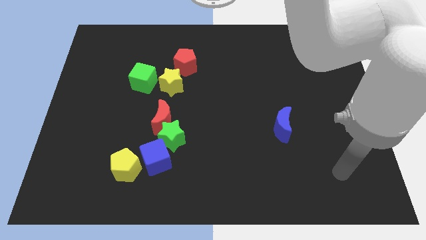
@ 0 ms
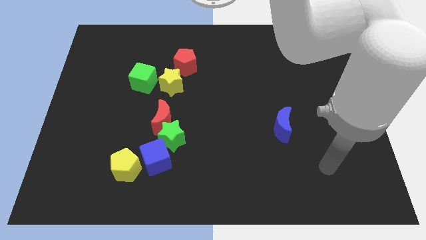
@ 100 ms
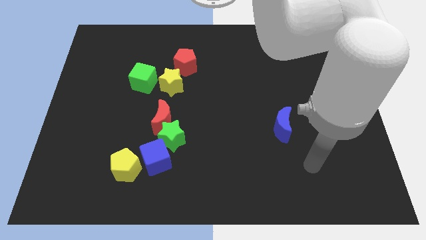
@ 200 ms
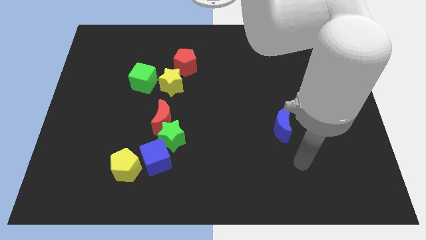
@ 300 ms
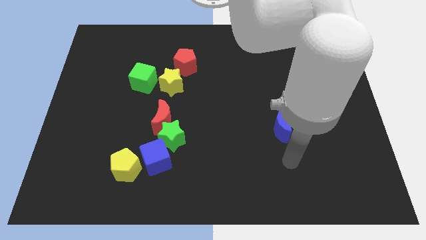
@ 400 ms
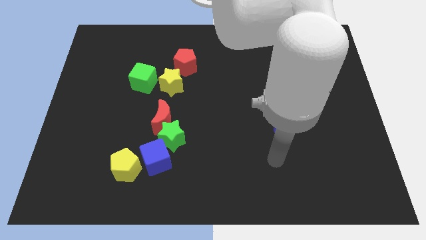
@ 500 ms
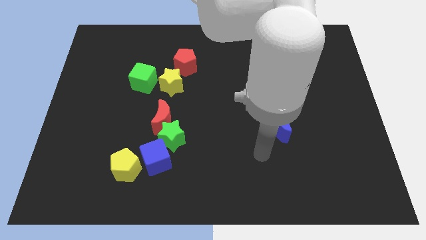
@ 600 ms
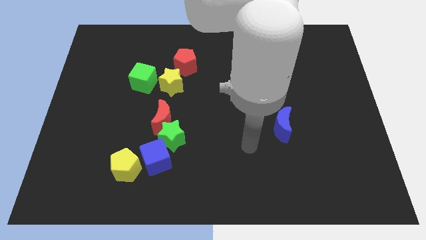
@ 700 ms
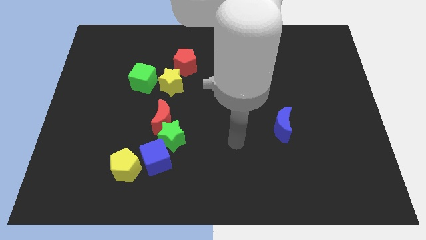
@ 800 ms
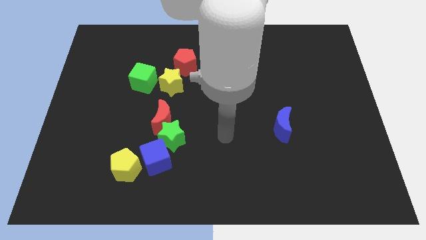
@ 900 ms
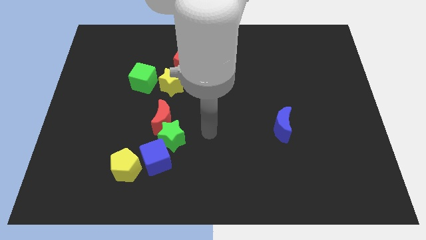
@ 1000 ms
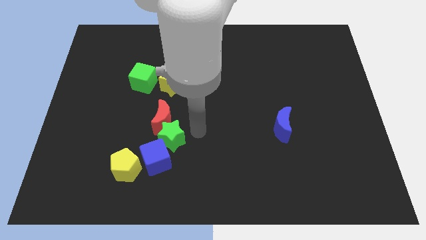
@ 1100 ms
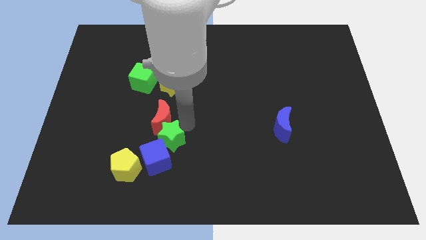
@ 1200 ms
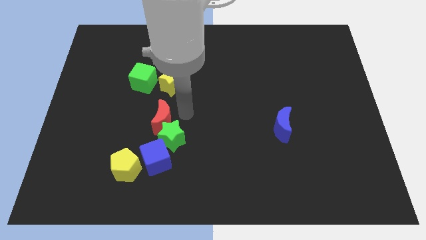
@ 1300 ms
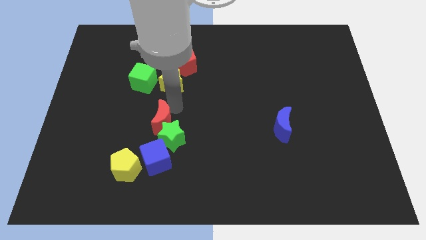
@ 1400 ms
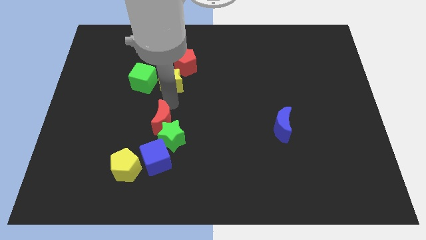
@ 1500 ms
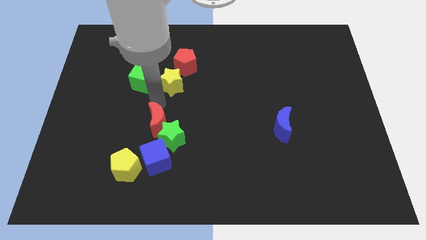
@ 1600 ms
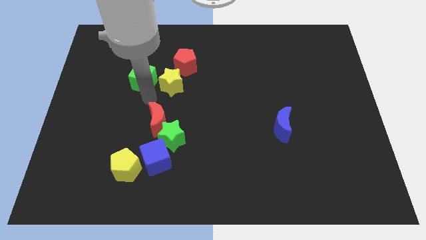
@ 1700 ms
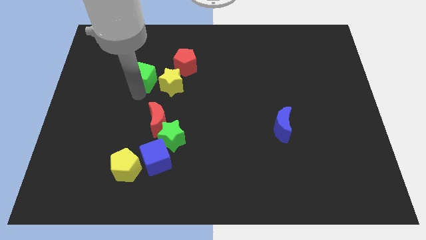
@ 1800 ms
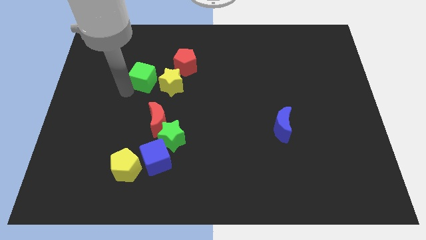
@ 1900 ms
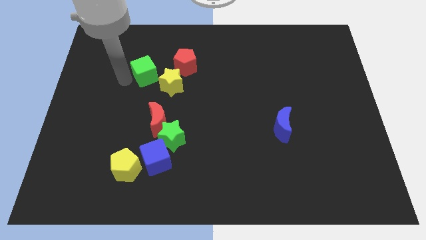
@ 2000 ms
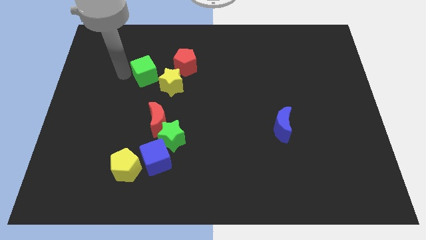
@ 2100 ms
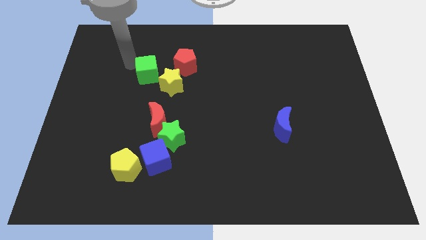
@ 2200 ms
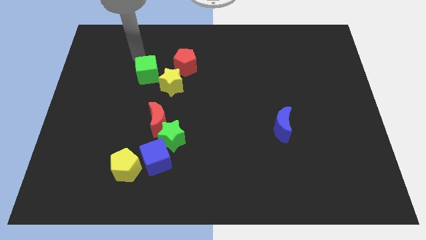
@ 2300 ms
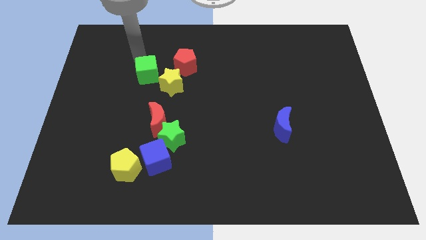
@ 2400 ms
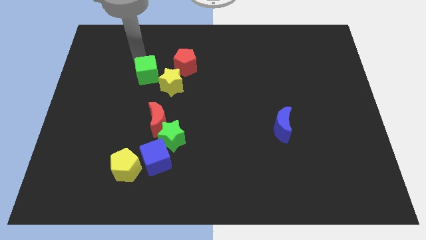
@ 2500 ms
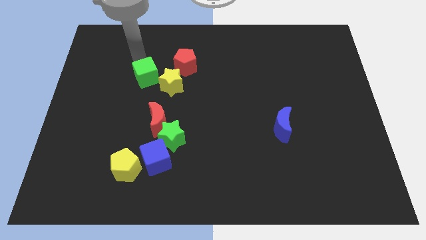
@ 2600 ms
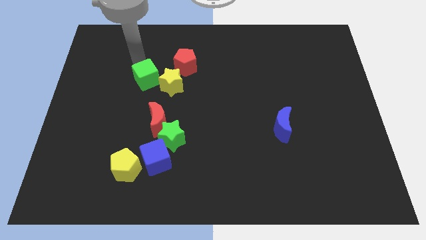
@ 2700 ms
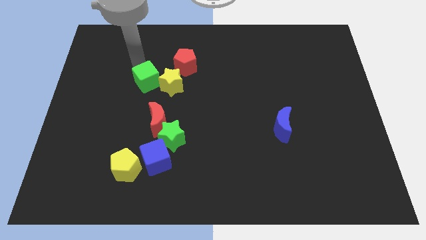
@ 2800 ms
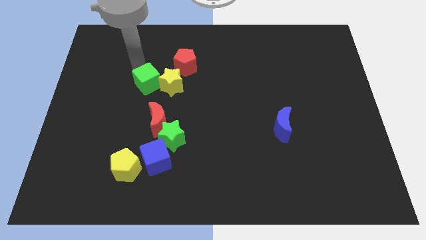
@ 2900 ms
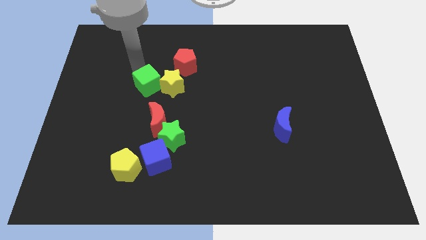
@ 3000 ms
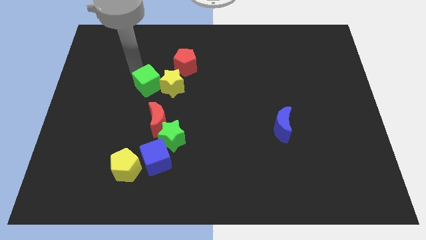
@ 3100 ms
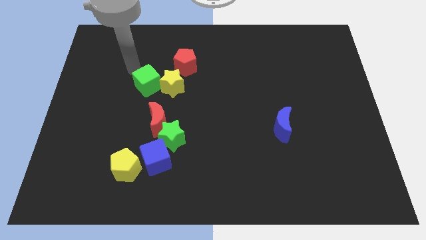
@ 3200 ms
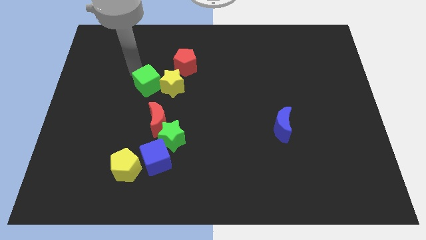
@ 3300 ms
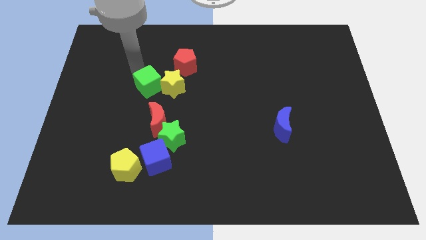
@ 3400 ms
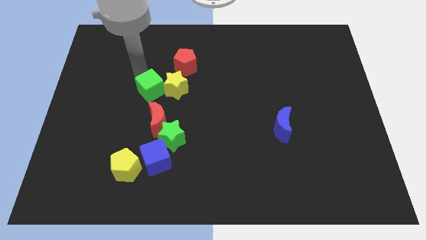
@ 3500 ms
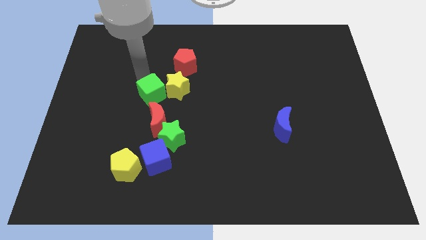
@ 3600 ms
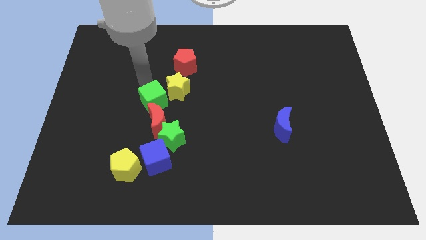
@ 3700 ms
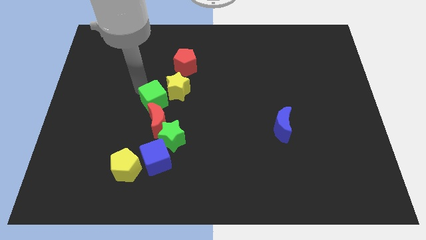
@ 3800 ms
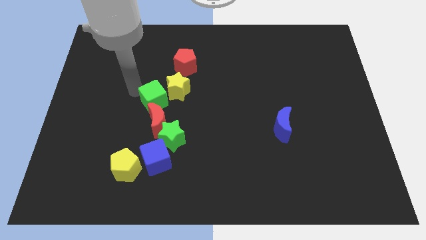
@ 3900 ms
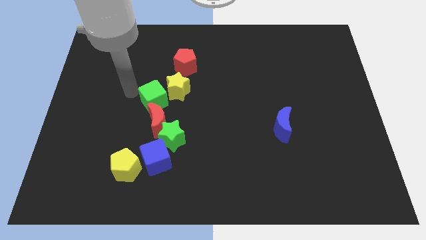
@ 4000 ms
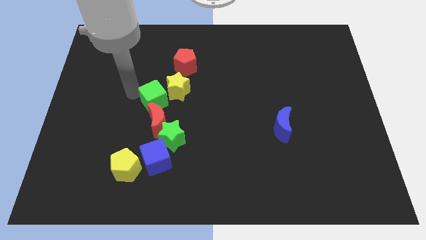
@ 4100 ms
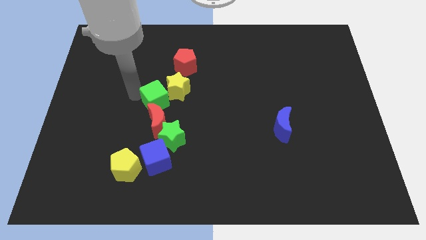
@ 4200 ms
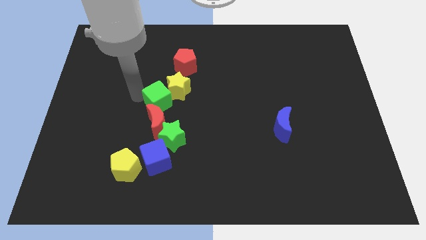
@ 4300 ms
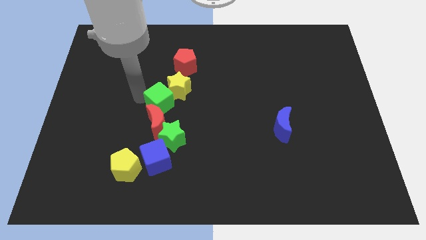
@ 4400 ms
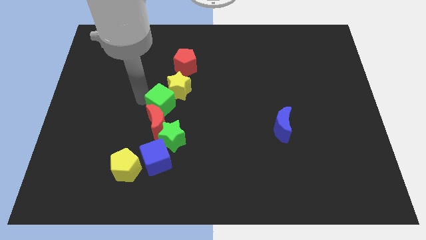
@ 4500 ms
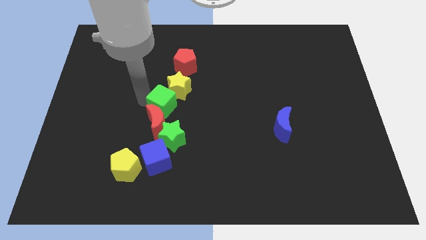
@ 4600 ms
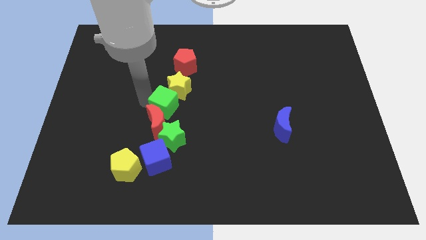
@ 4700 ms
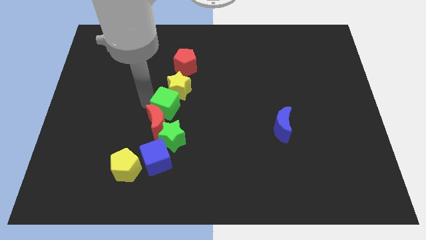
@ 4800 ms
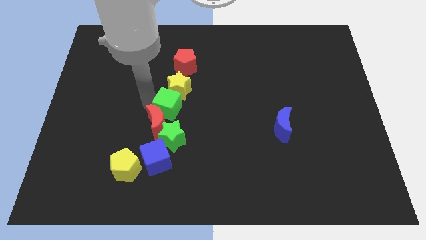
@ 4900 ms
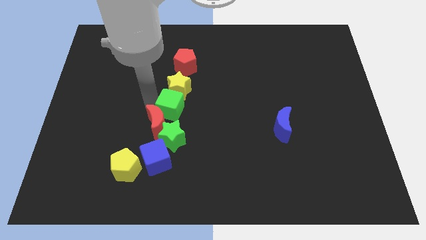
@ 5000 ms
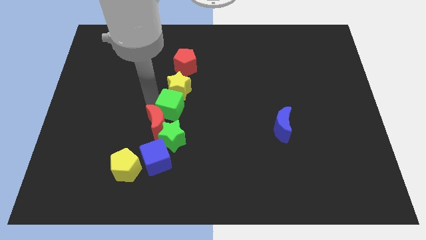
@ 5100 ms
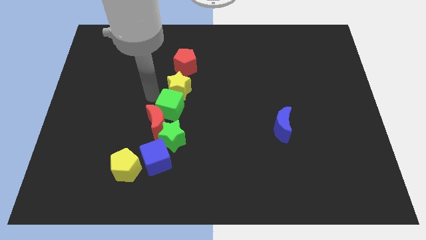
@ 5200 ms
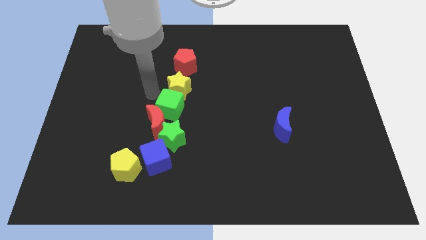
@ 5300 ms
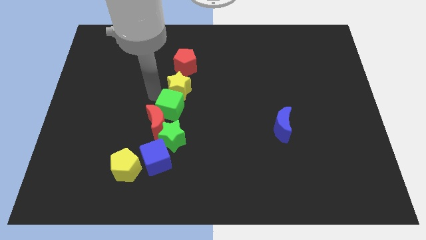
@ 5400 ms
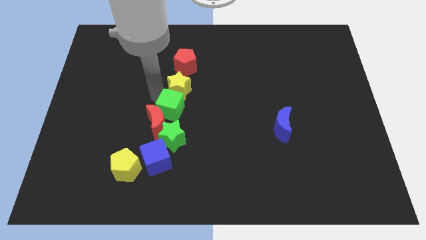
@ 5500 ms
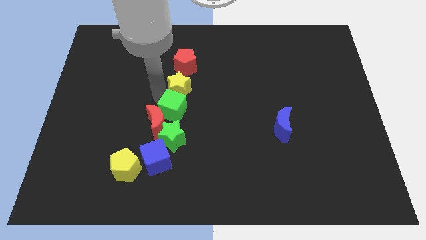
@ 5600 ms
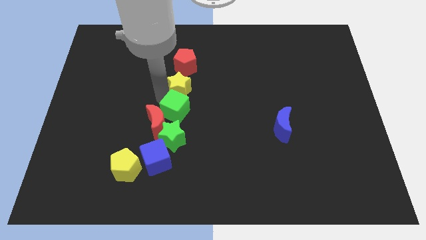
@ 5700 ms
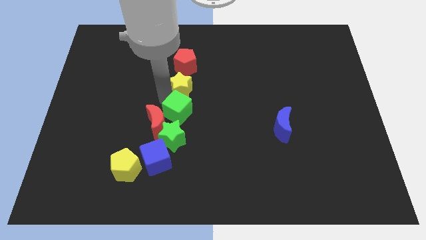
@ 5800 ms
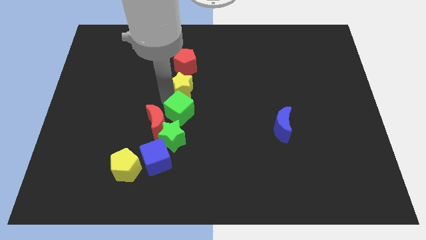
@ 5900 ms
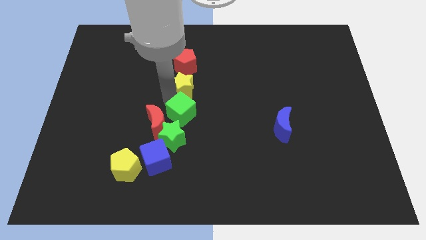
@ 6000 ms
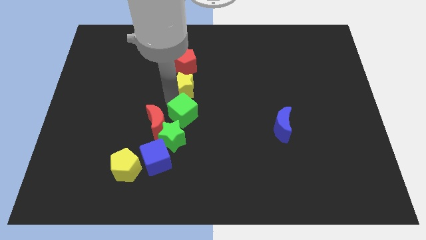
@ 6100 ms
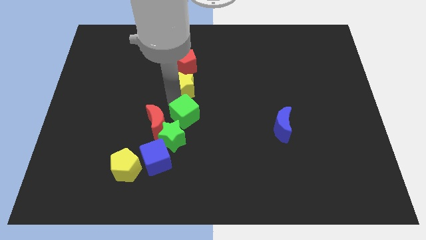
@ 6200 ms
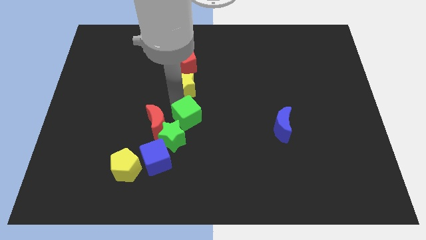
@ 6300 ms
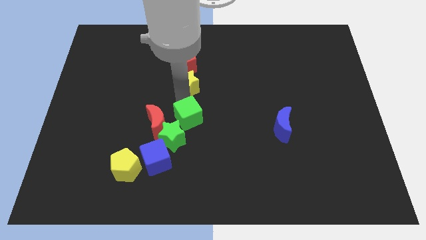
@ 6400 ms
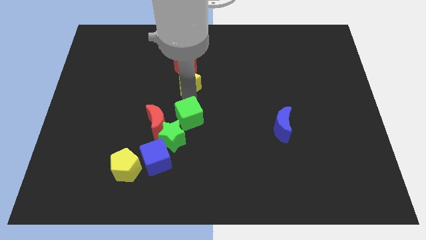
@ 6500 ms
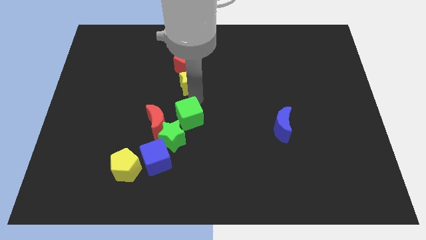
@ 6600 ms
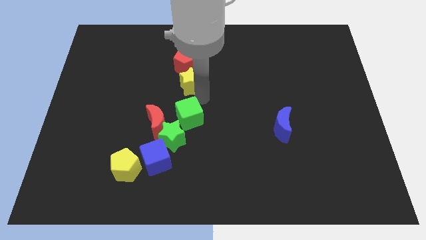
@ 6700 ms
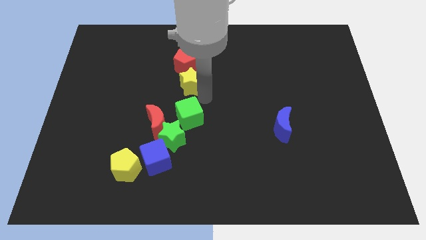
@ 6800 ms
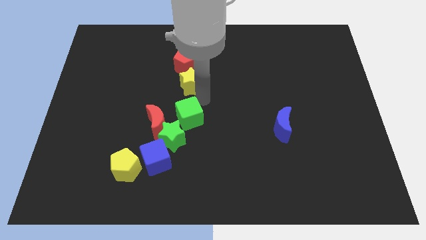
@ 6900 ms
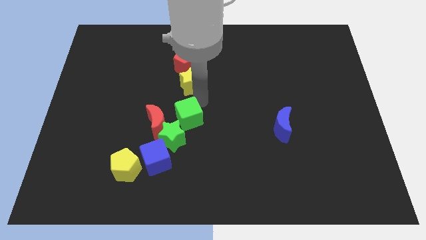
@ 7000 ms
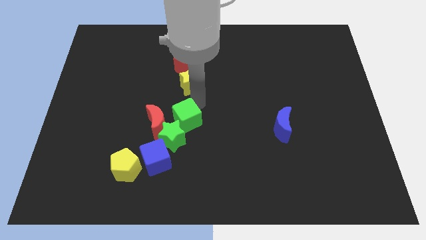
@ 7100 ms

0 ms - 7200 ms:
push the green cube to the green star

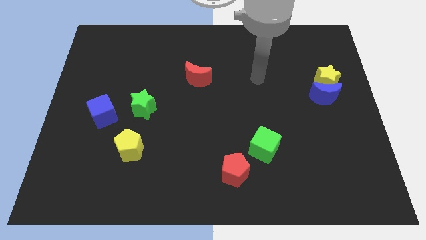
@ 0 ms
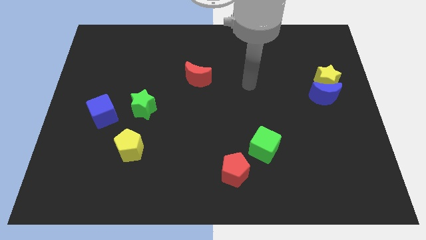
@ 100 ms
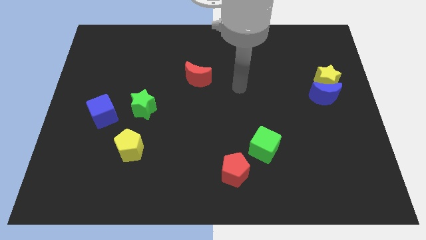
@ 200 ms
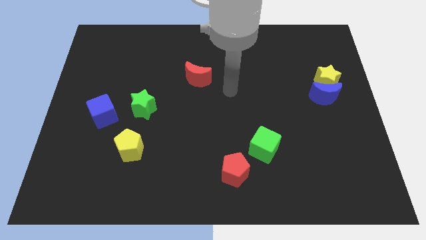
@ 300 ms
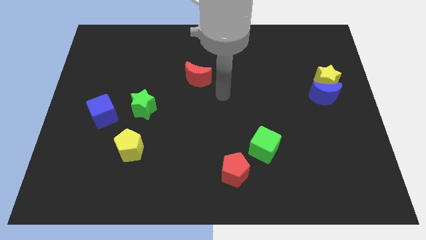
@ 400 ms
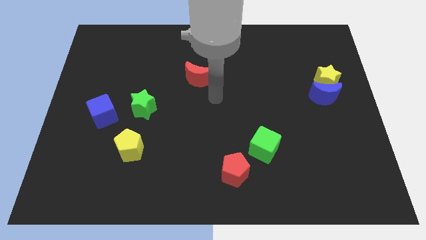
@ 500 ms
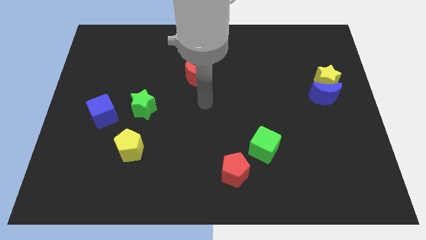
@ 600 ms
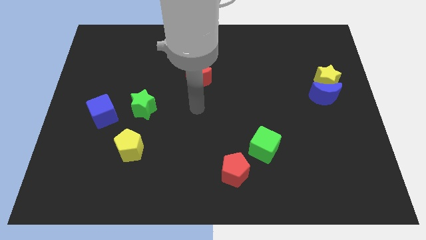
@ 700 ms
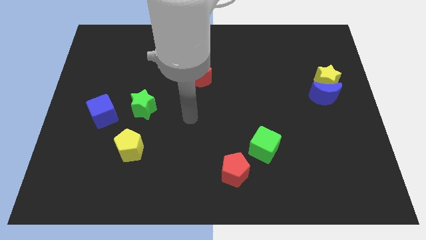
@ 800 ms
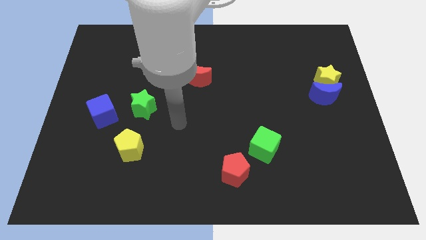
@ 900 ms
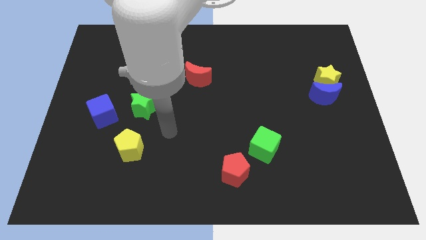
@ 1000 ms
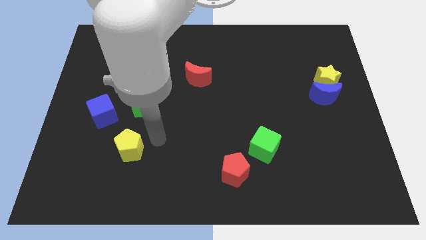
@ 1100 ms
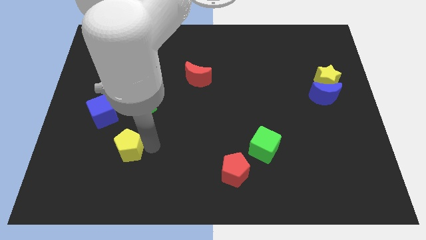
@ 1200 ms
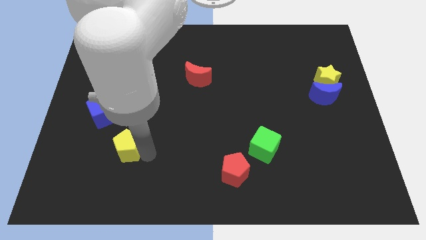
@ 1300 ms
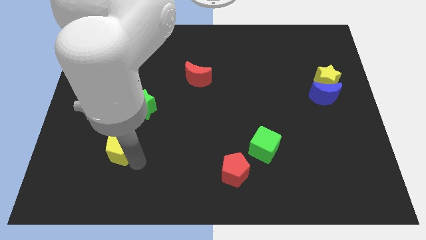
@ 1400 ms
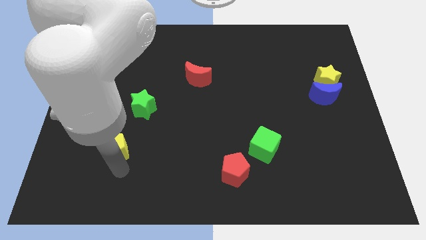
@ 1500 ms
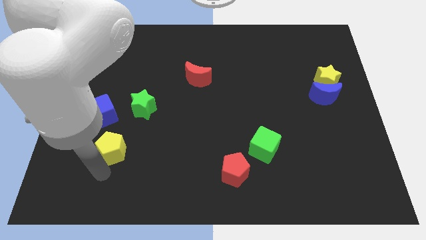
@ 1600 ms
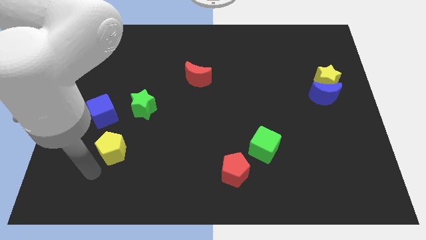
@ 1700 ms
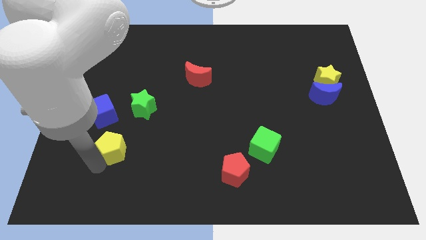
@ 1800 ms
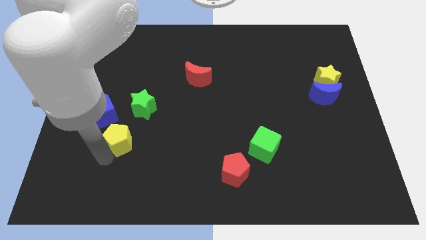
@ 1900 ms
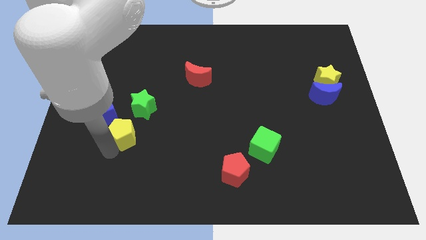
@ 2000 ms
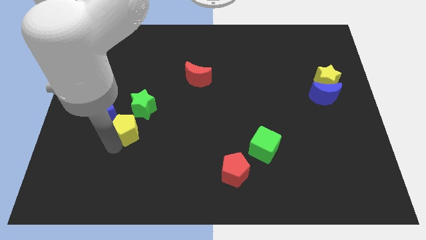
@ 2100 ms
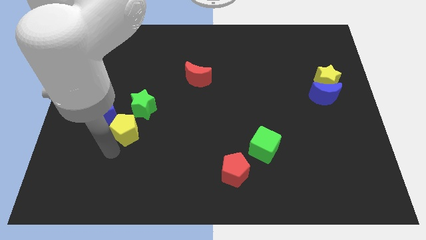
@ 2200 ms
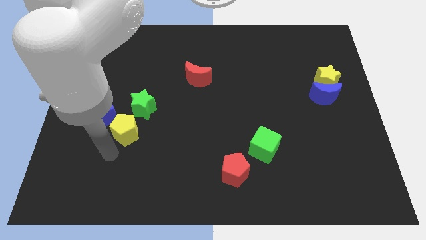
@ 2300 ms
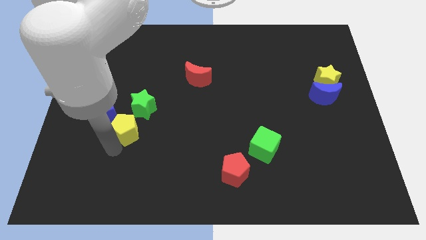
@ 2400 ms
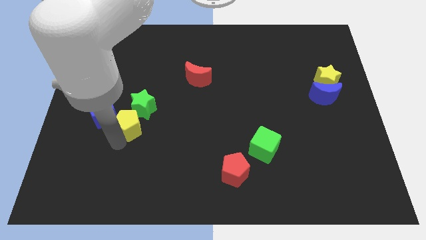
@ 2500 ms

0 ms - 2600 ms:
put the yellow pentagon to the green star
